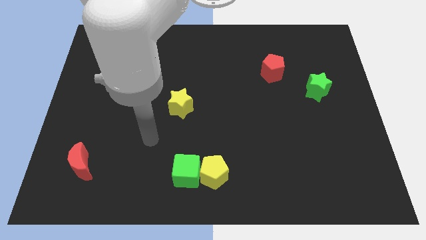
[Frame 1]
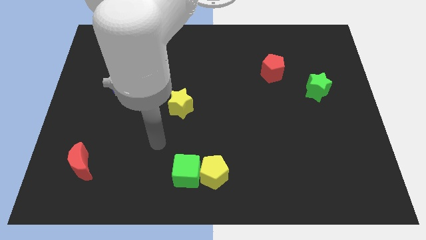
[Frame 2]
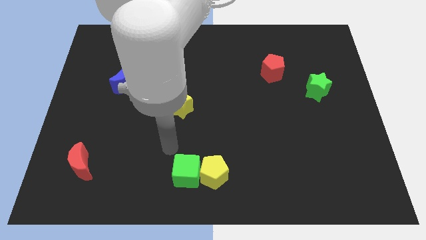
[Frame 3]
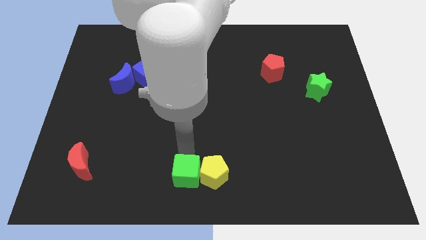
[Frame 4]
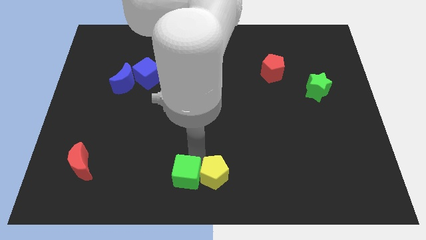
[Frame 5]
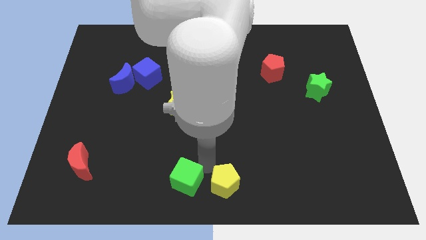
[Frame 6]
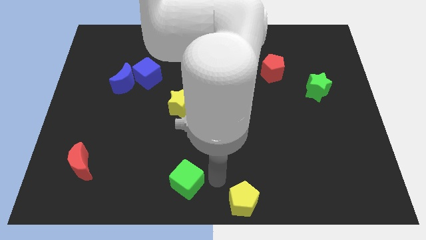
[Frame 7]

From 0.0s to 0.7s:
move the green cube away from the yellow pentagon

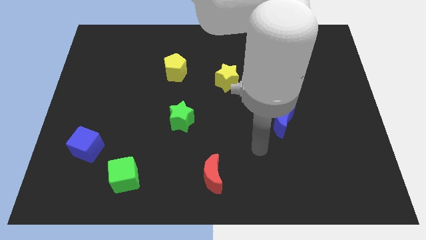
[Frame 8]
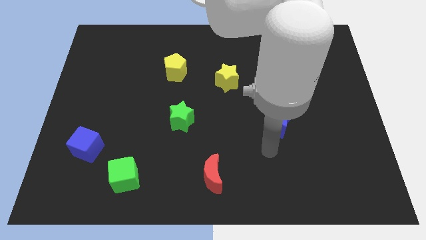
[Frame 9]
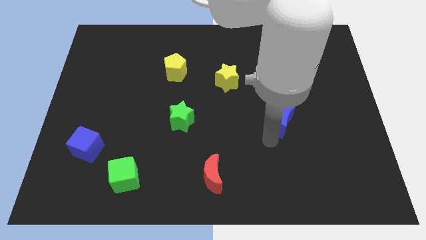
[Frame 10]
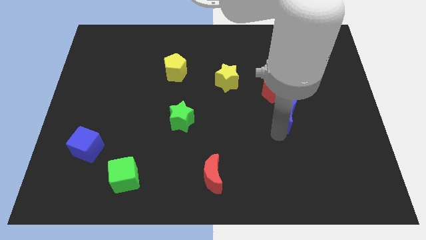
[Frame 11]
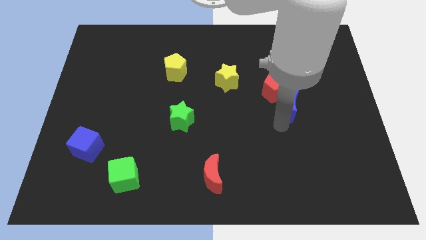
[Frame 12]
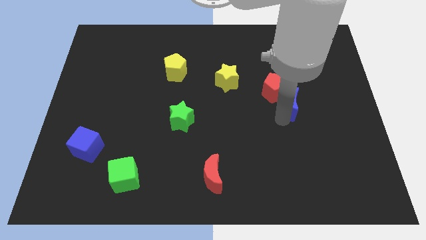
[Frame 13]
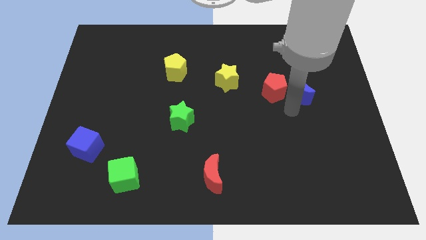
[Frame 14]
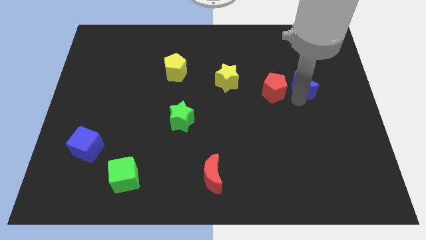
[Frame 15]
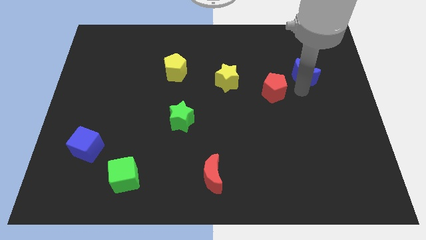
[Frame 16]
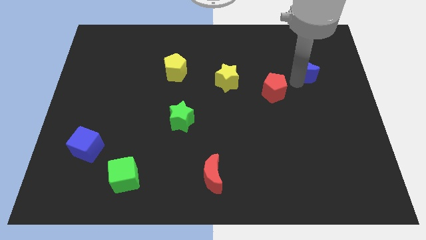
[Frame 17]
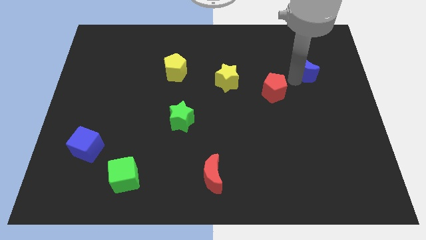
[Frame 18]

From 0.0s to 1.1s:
pull the red pentagon apart from the blue moon

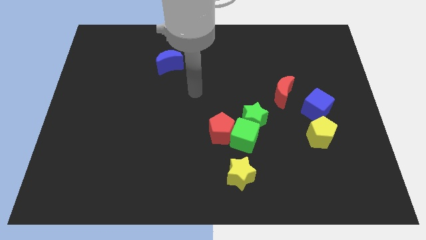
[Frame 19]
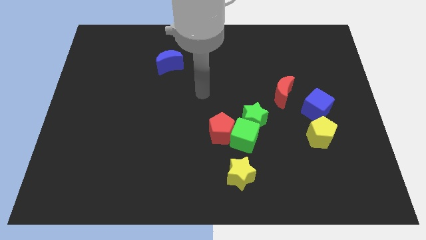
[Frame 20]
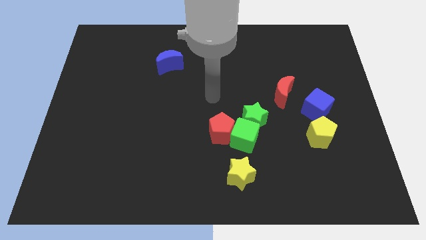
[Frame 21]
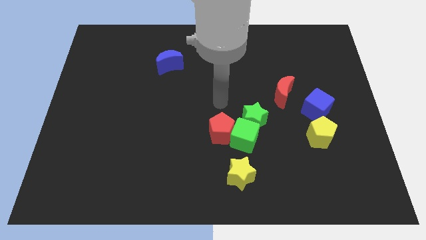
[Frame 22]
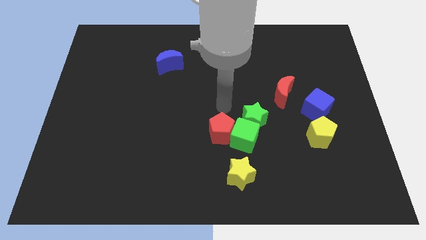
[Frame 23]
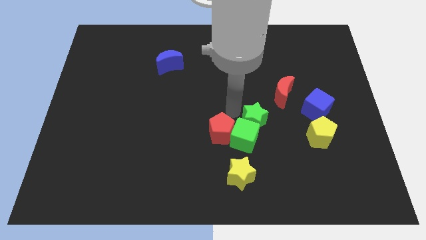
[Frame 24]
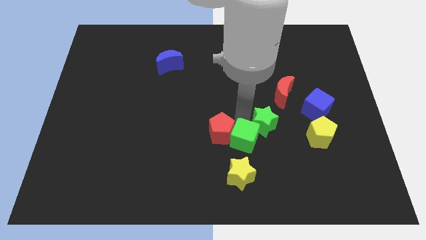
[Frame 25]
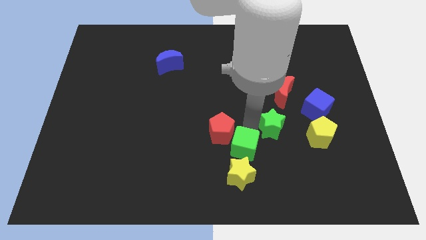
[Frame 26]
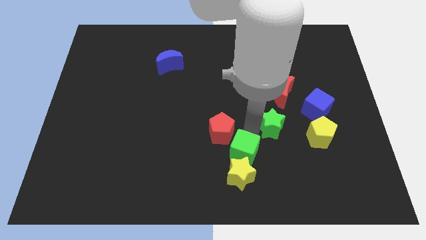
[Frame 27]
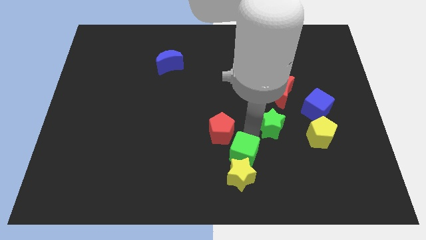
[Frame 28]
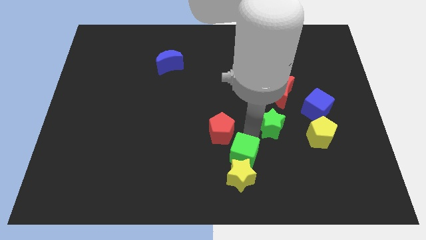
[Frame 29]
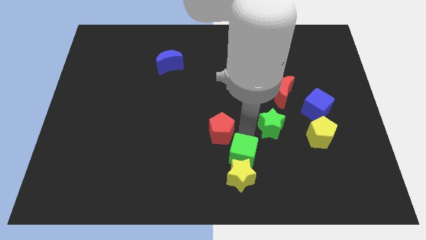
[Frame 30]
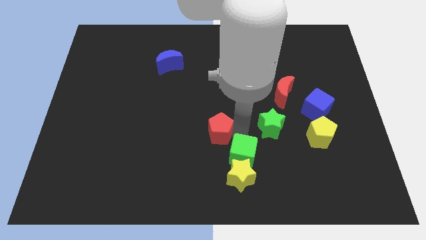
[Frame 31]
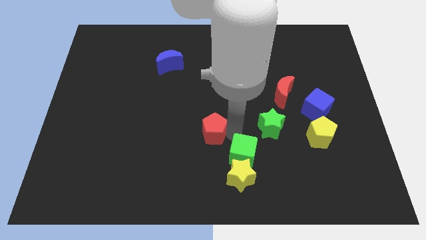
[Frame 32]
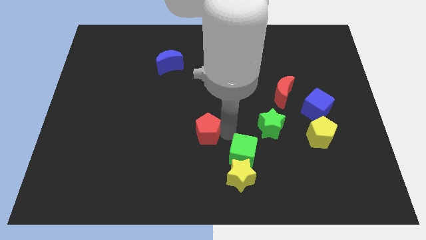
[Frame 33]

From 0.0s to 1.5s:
move the red pentagon away from the green cube and green star

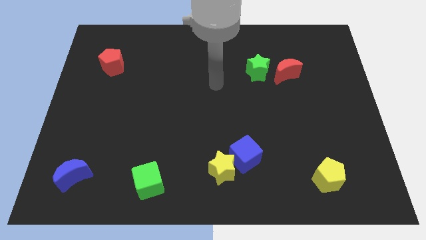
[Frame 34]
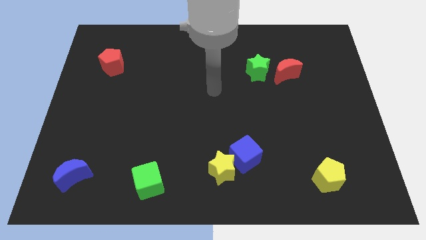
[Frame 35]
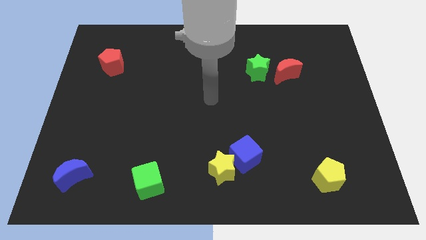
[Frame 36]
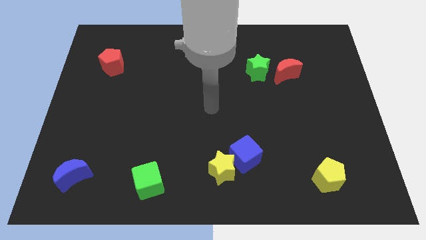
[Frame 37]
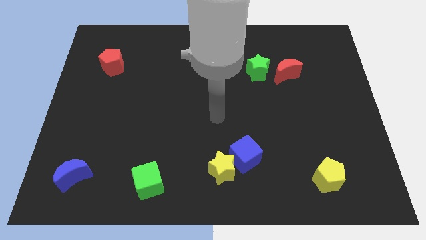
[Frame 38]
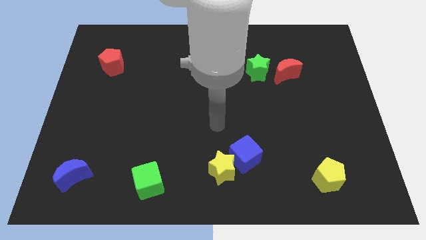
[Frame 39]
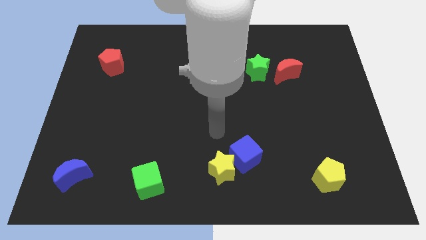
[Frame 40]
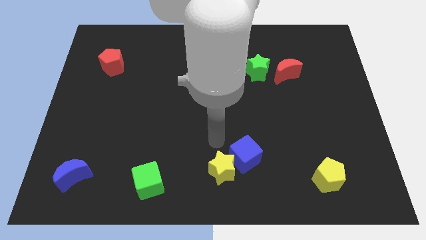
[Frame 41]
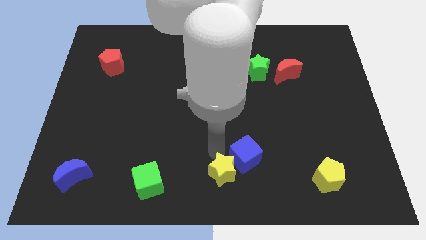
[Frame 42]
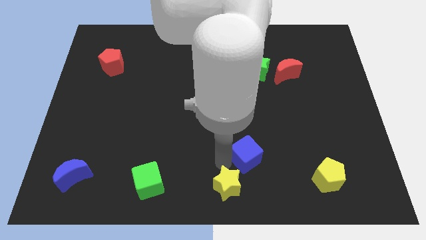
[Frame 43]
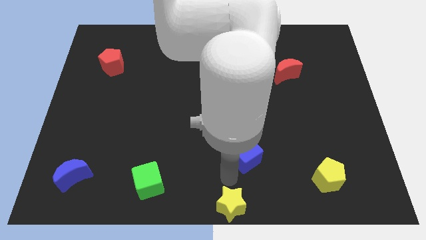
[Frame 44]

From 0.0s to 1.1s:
move the blue cube away from the yellow star

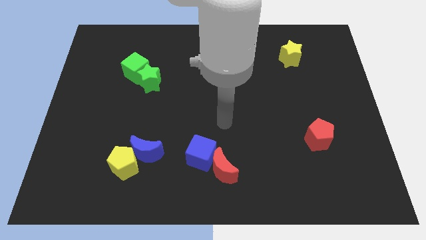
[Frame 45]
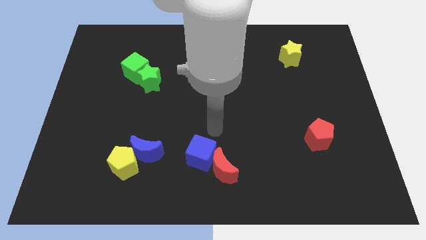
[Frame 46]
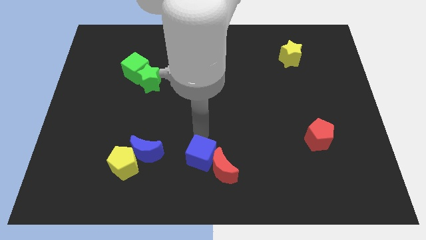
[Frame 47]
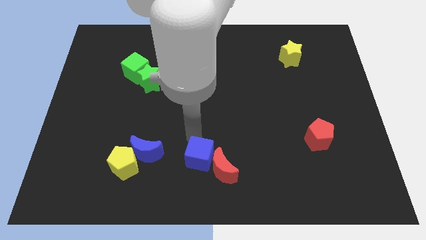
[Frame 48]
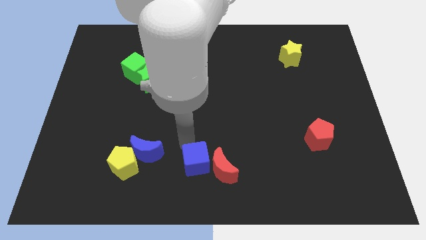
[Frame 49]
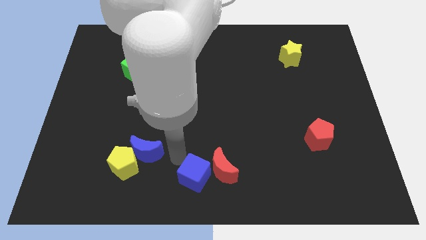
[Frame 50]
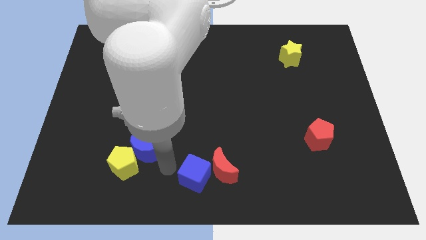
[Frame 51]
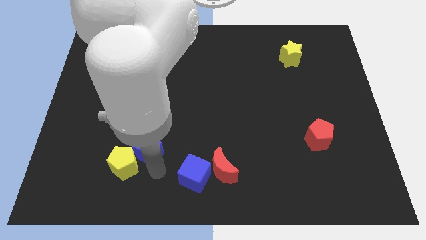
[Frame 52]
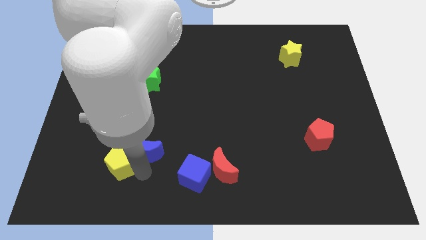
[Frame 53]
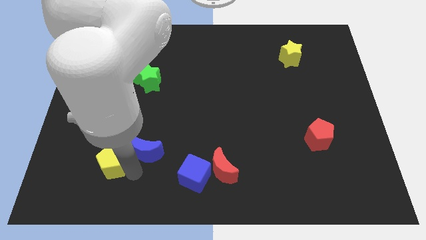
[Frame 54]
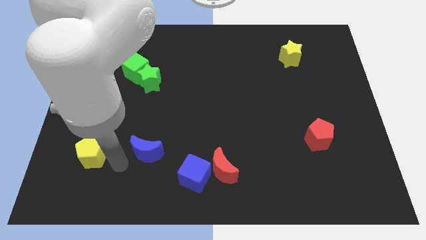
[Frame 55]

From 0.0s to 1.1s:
move the blue moon away from the yellow pentagon

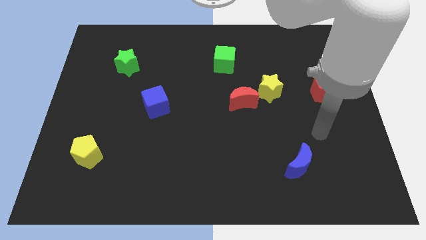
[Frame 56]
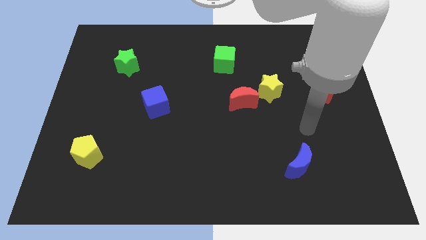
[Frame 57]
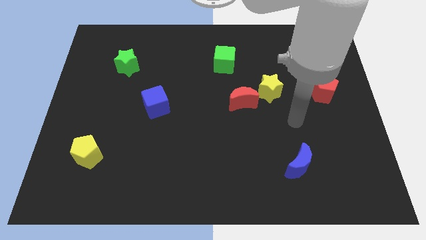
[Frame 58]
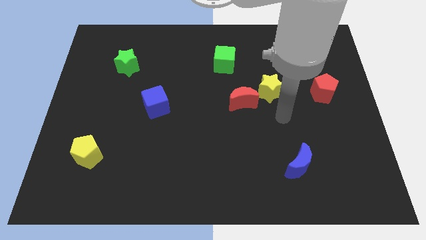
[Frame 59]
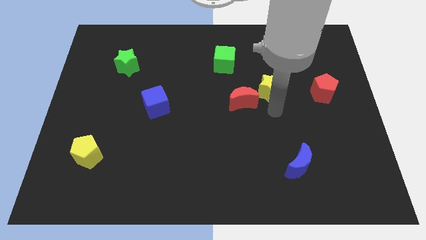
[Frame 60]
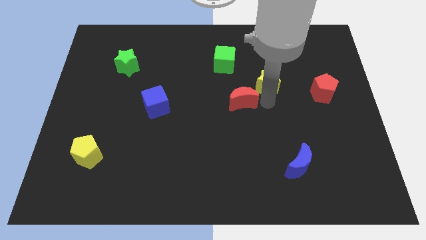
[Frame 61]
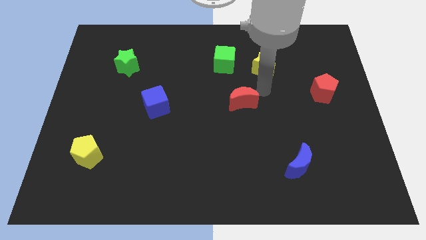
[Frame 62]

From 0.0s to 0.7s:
pull the red moon apart from the yellow star

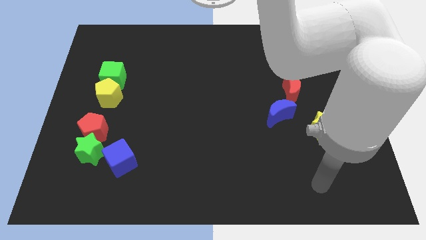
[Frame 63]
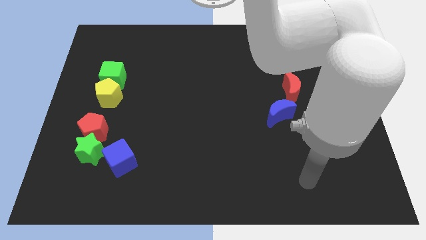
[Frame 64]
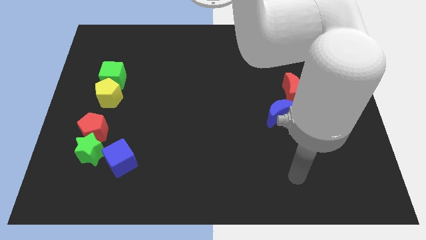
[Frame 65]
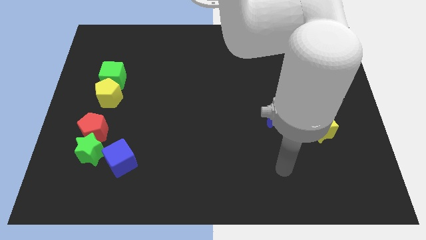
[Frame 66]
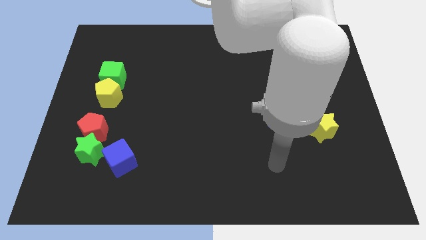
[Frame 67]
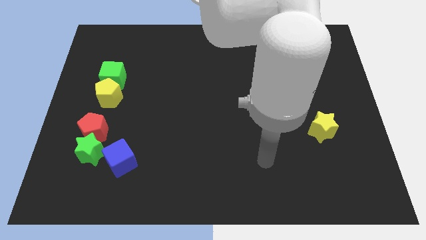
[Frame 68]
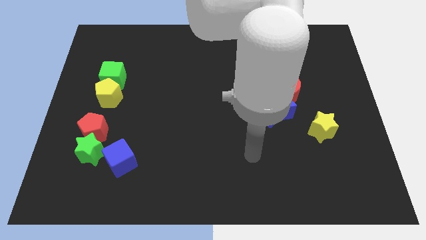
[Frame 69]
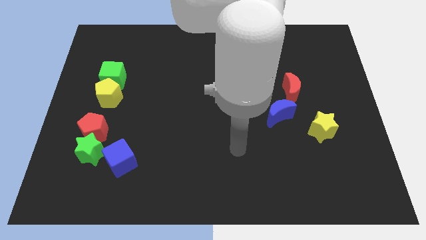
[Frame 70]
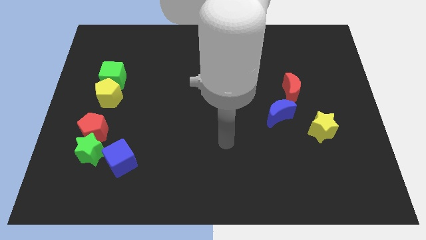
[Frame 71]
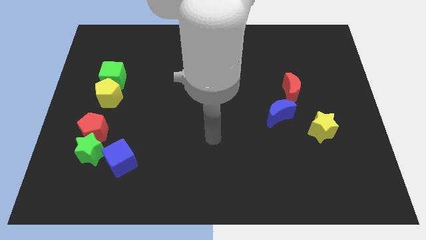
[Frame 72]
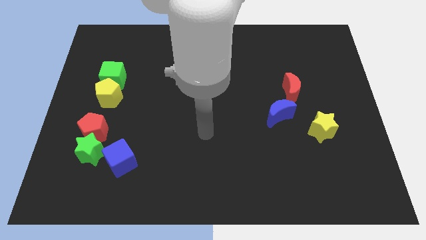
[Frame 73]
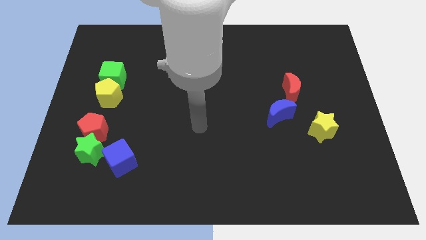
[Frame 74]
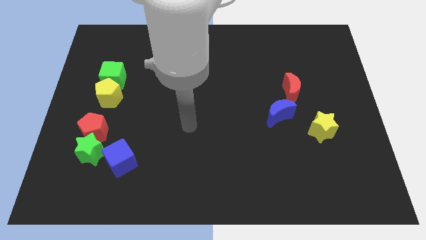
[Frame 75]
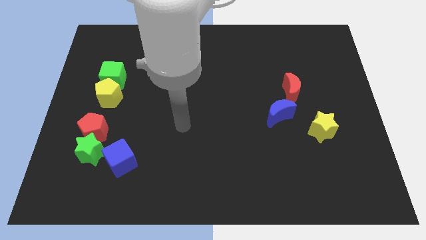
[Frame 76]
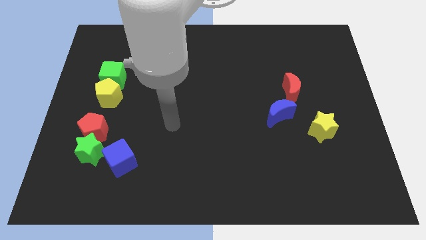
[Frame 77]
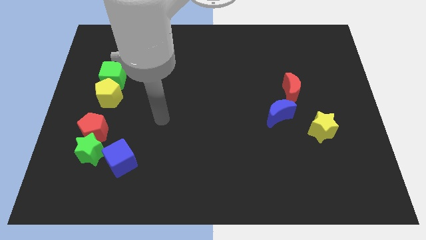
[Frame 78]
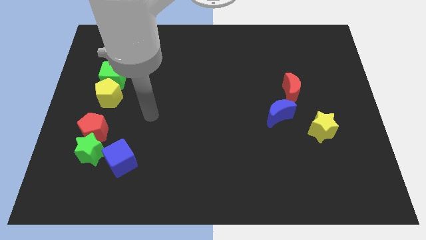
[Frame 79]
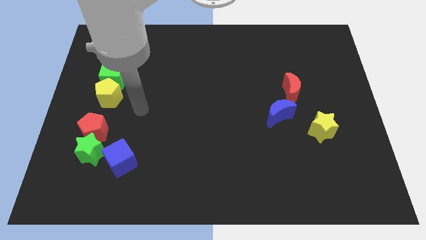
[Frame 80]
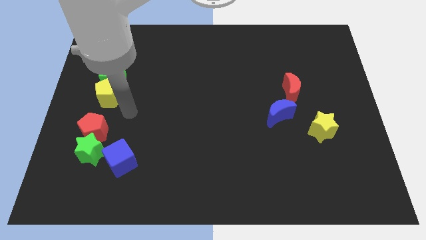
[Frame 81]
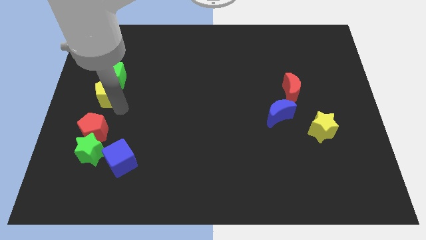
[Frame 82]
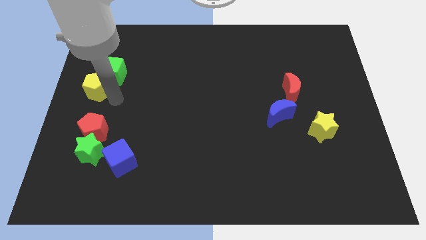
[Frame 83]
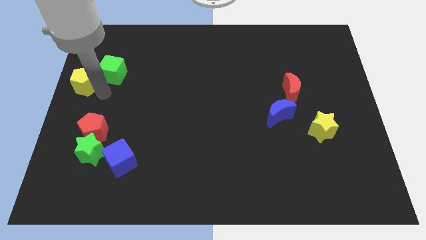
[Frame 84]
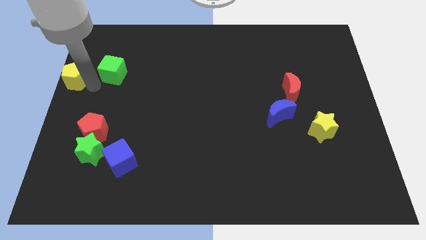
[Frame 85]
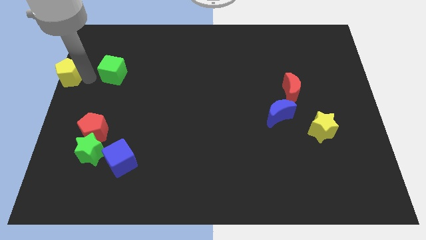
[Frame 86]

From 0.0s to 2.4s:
separate the green cube from the yellow pentagon

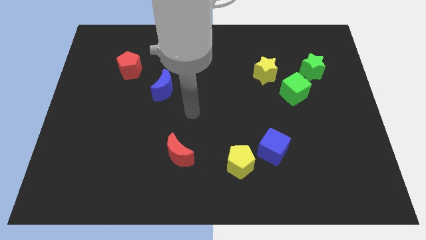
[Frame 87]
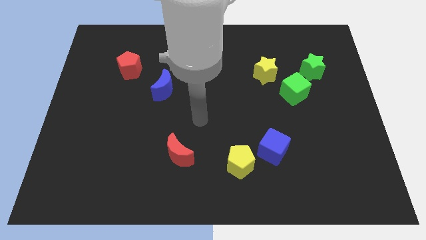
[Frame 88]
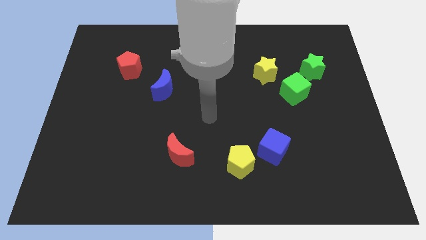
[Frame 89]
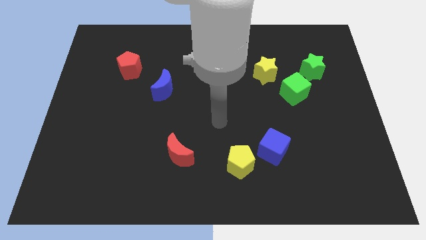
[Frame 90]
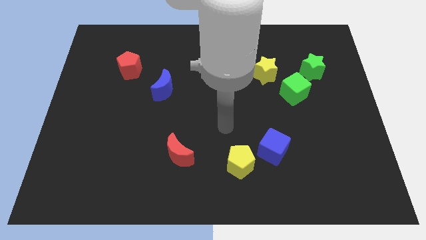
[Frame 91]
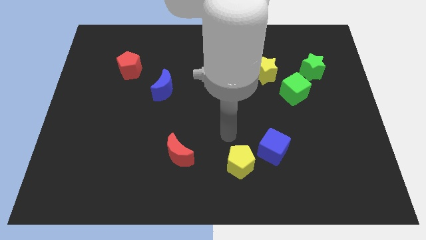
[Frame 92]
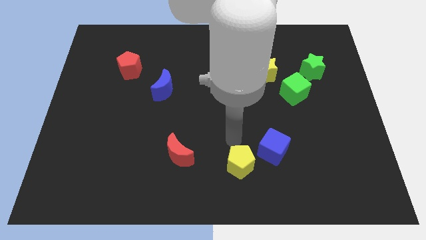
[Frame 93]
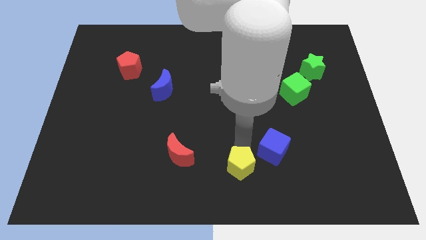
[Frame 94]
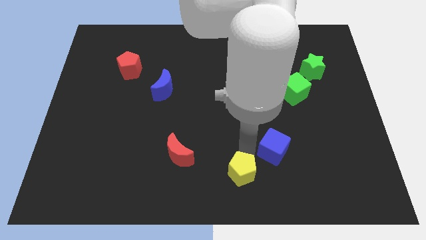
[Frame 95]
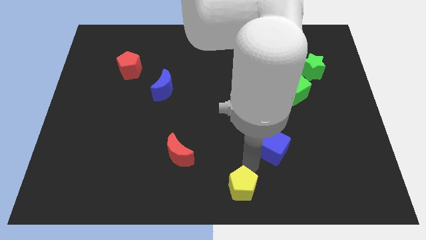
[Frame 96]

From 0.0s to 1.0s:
move the blue cube away from the yellow pentagon
